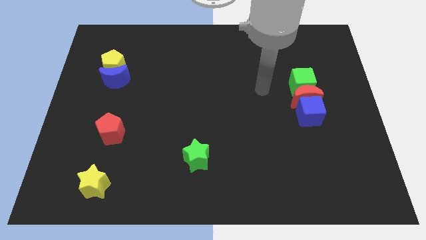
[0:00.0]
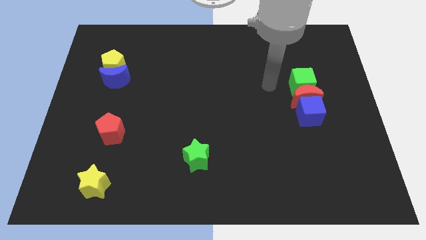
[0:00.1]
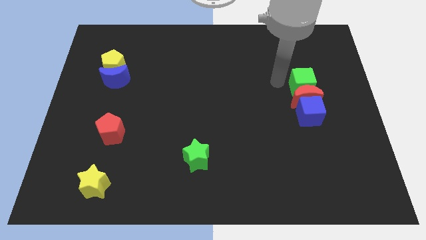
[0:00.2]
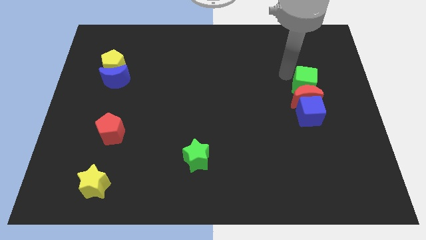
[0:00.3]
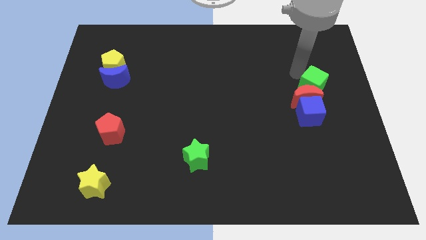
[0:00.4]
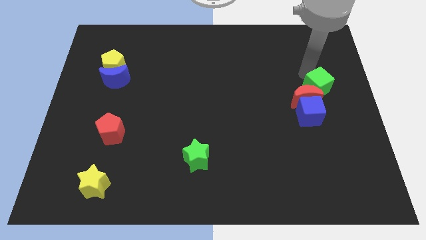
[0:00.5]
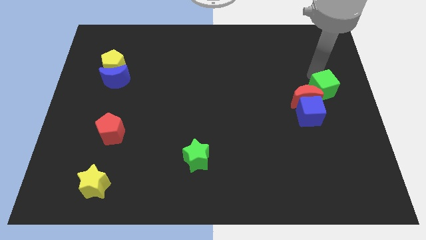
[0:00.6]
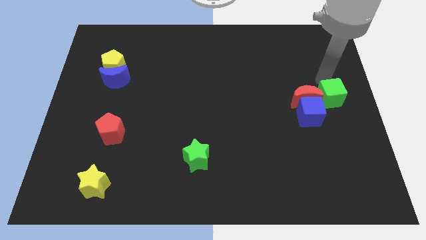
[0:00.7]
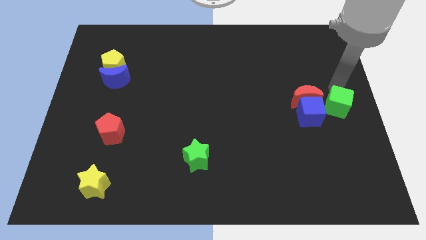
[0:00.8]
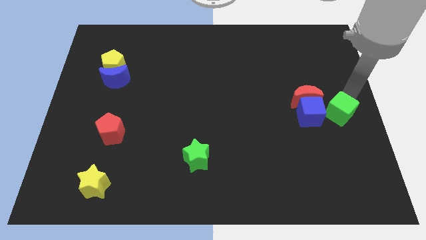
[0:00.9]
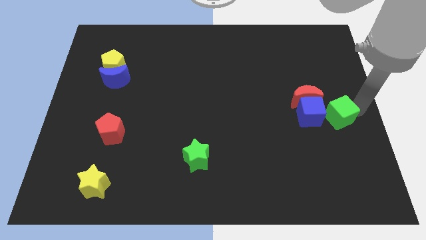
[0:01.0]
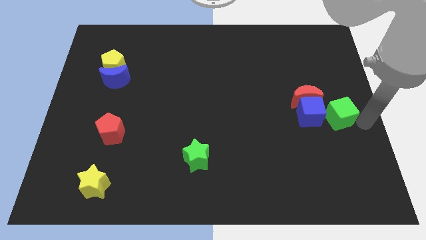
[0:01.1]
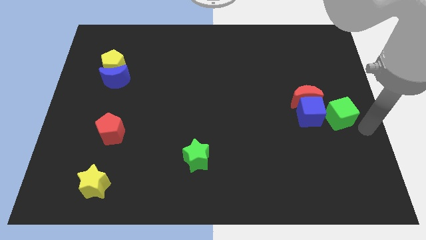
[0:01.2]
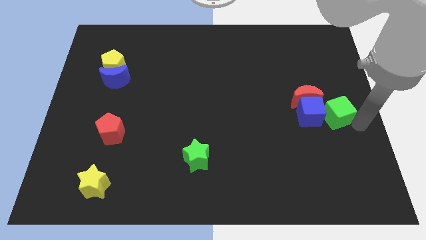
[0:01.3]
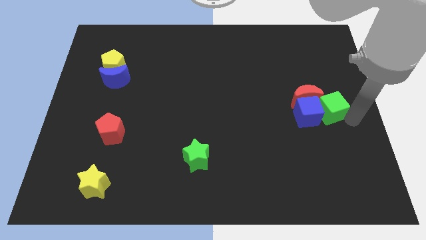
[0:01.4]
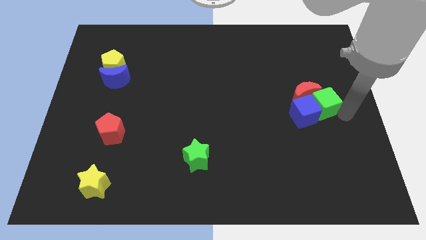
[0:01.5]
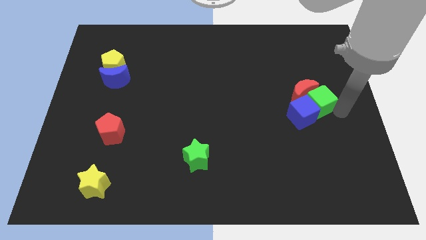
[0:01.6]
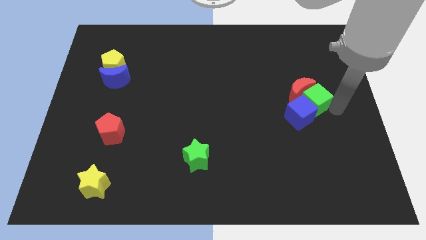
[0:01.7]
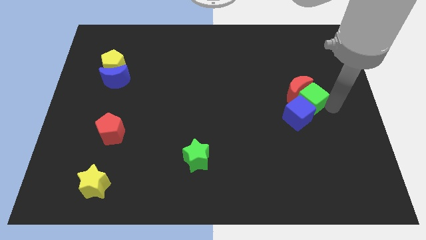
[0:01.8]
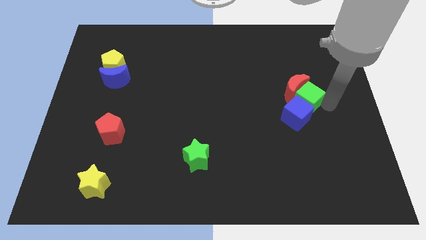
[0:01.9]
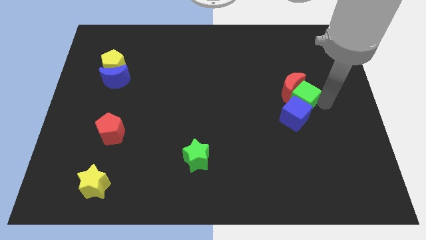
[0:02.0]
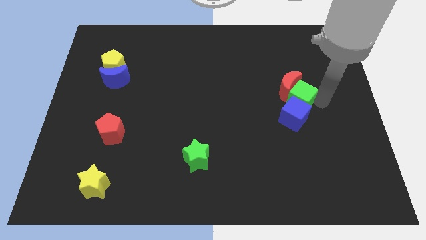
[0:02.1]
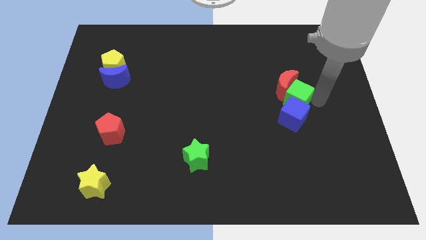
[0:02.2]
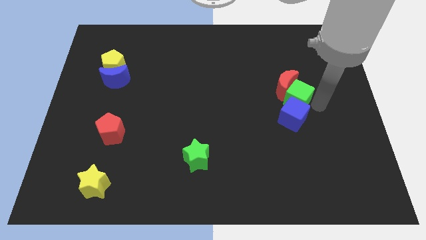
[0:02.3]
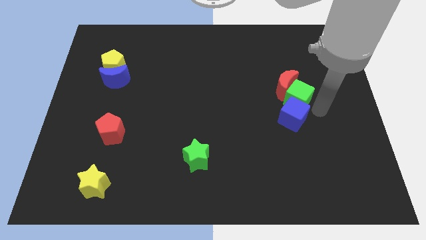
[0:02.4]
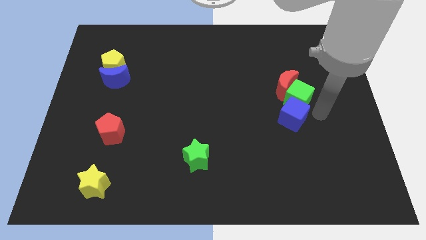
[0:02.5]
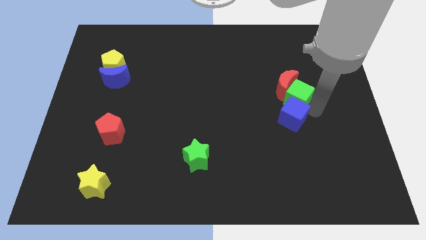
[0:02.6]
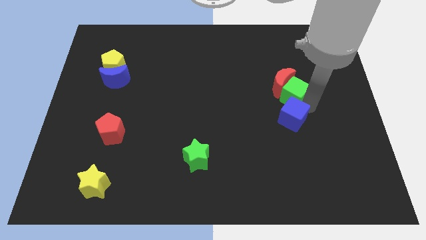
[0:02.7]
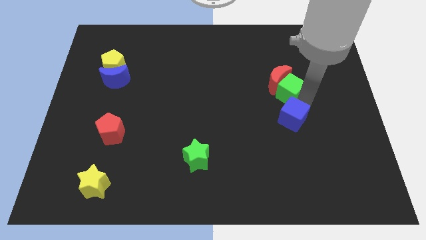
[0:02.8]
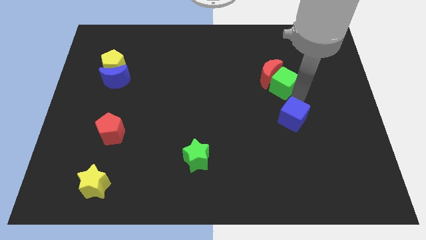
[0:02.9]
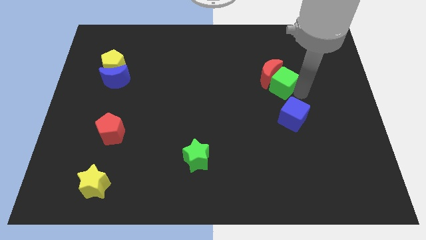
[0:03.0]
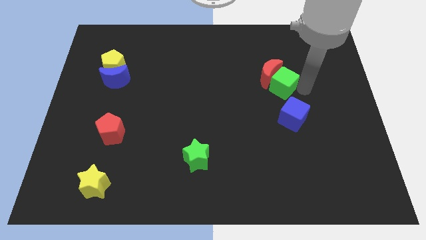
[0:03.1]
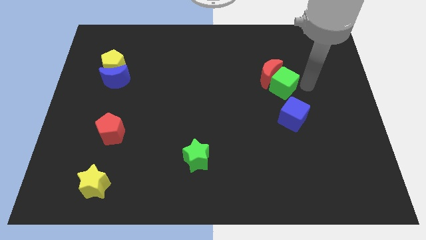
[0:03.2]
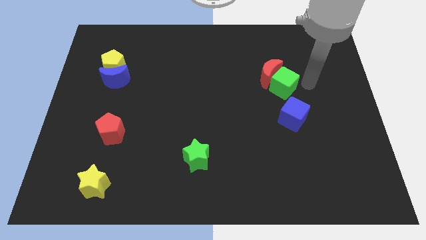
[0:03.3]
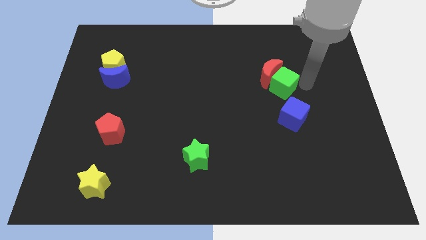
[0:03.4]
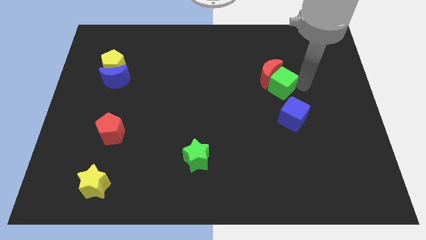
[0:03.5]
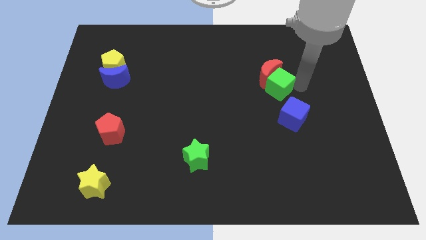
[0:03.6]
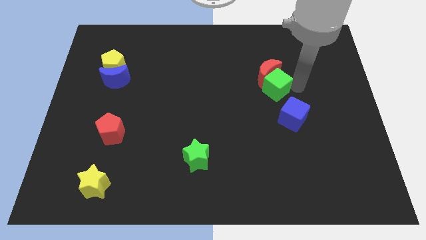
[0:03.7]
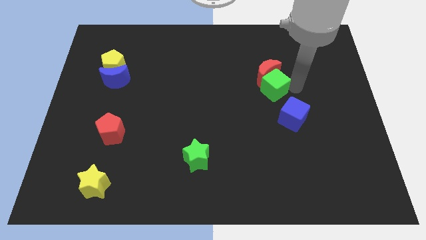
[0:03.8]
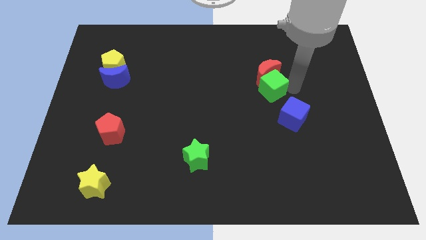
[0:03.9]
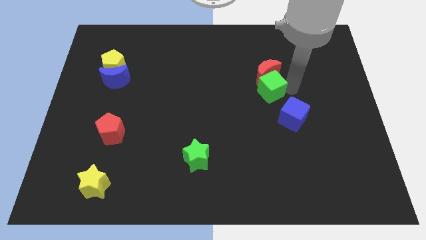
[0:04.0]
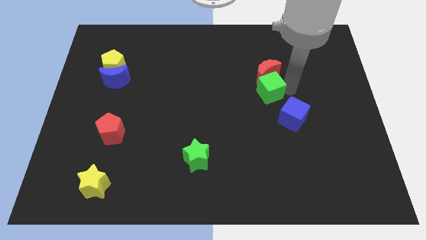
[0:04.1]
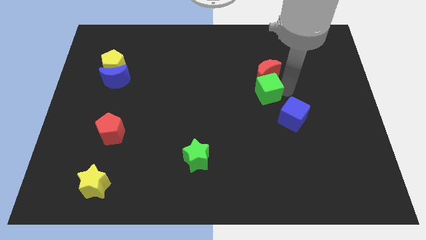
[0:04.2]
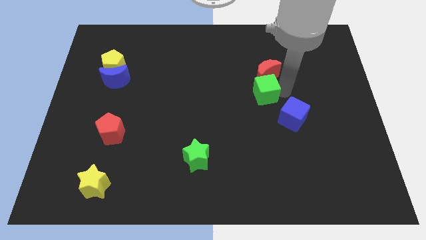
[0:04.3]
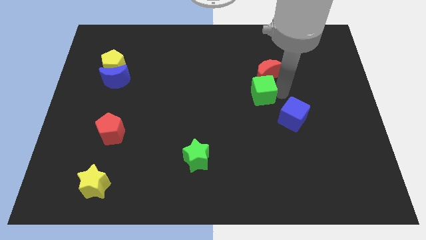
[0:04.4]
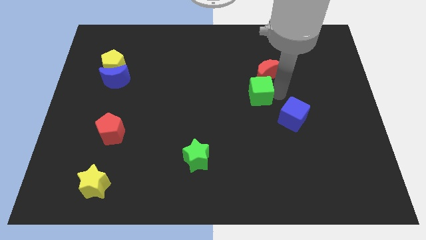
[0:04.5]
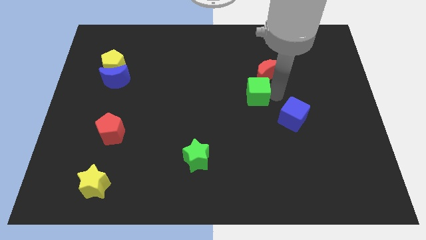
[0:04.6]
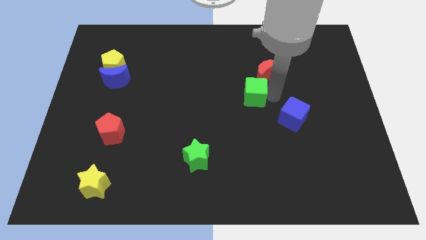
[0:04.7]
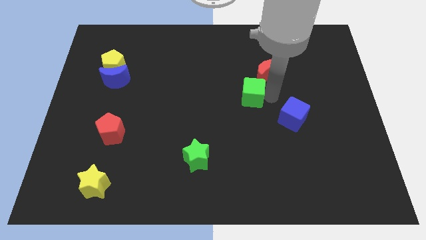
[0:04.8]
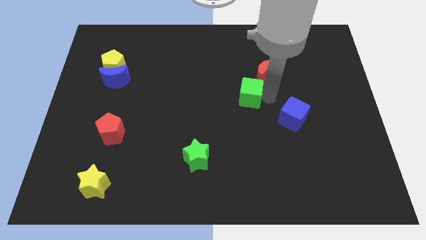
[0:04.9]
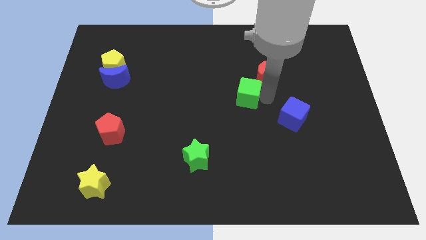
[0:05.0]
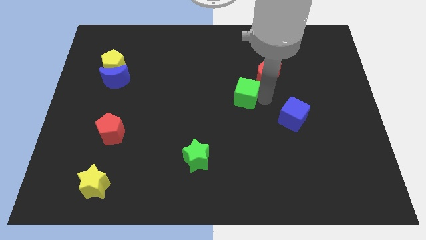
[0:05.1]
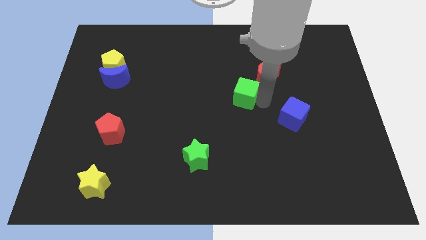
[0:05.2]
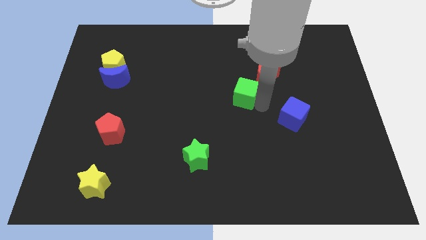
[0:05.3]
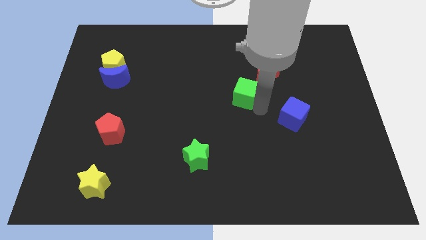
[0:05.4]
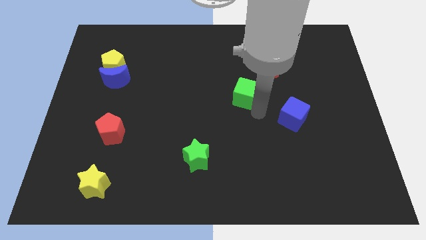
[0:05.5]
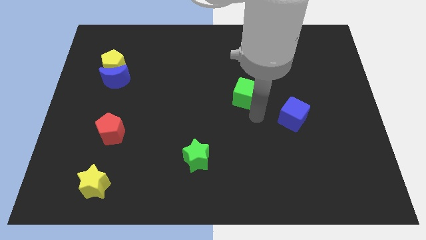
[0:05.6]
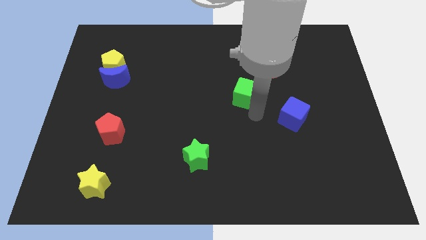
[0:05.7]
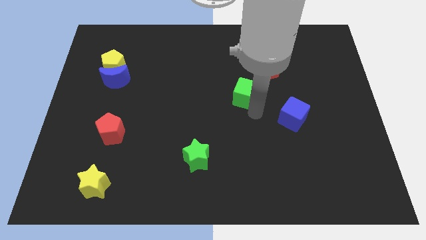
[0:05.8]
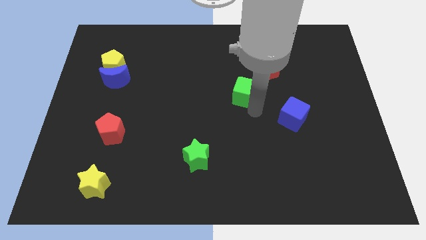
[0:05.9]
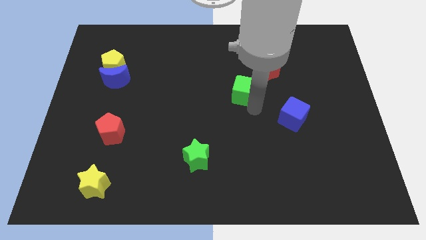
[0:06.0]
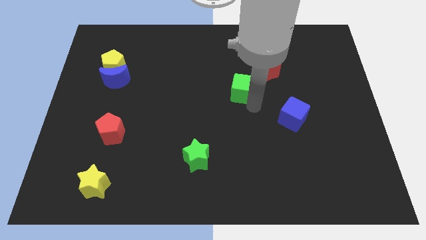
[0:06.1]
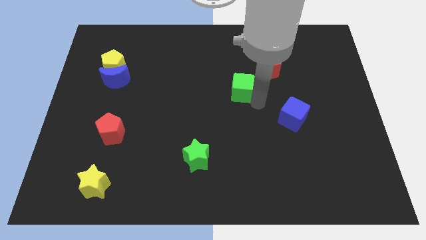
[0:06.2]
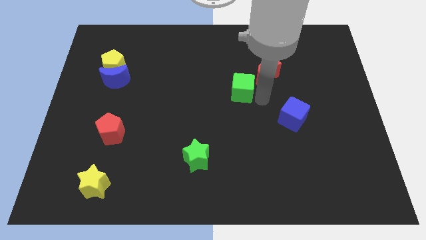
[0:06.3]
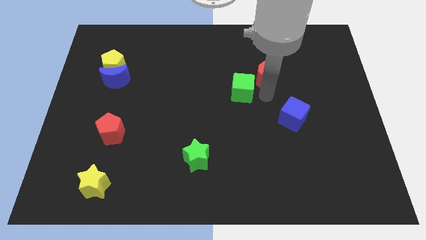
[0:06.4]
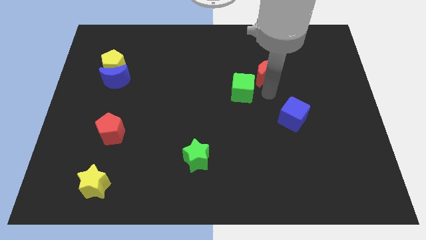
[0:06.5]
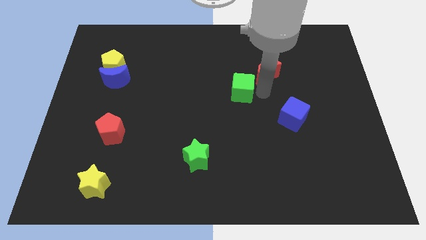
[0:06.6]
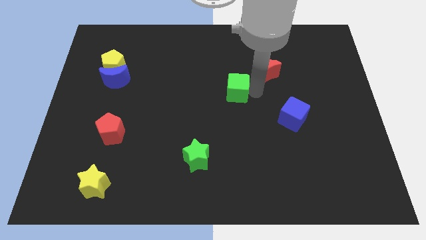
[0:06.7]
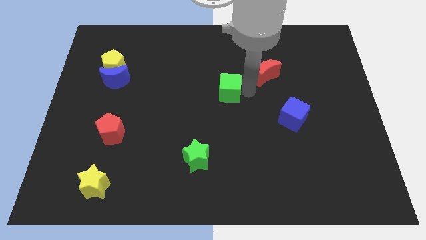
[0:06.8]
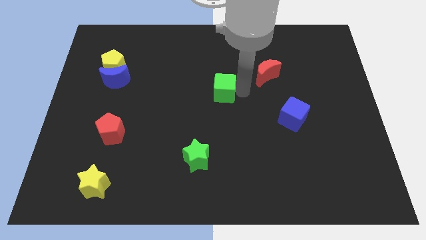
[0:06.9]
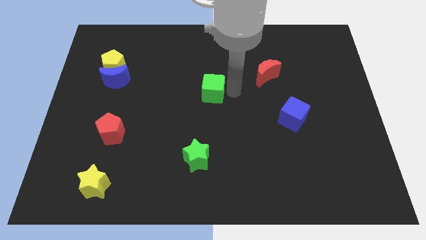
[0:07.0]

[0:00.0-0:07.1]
slide the green cube left

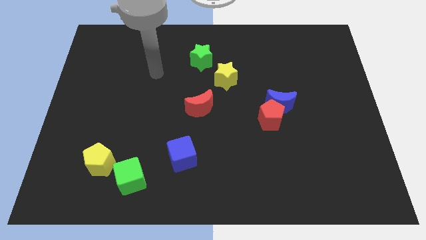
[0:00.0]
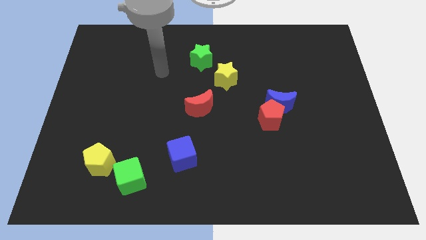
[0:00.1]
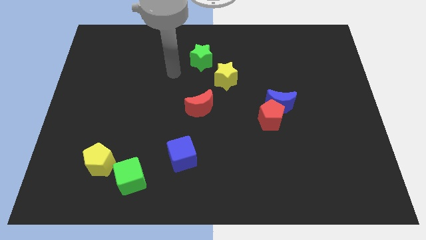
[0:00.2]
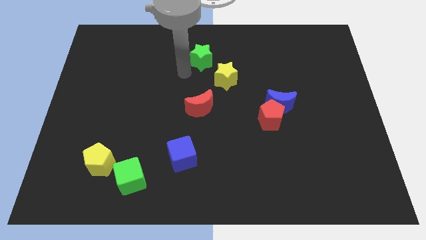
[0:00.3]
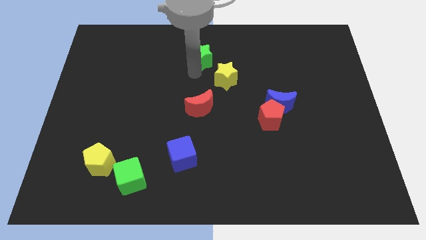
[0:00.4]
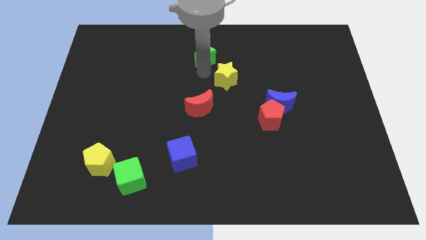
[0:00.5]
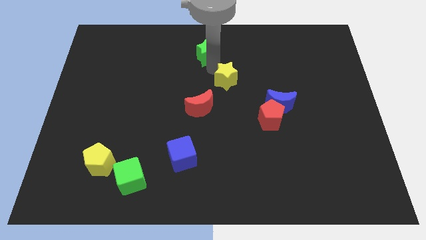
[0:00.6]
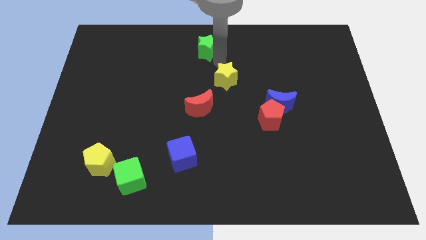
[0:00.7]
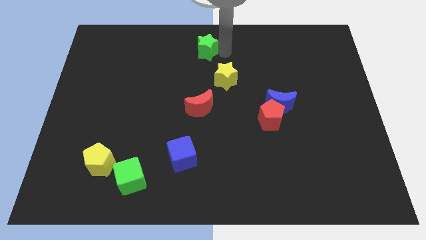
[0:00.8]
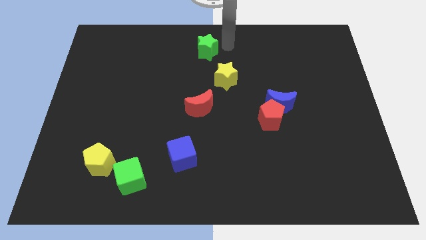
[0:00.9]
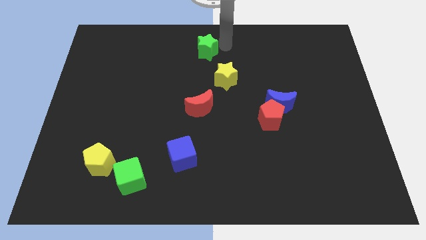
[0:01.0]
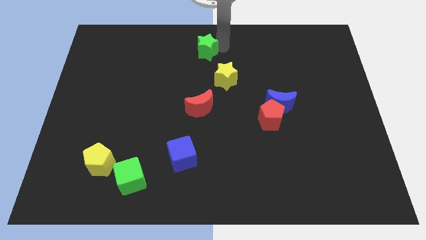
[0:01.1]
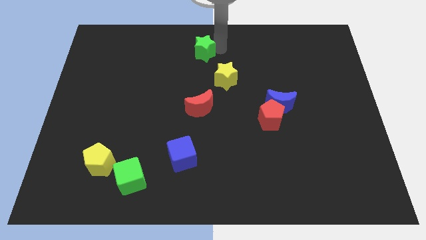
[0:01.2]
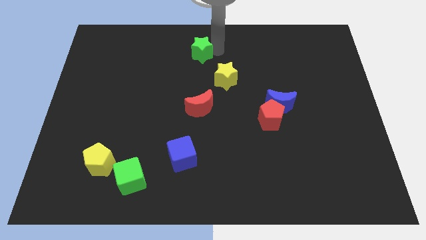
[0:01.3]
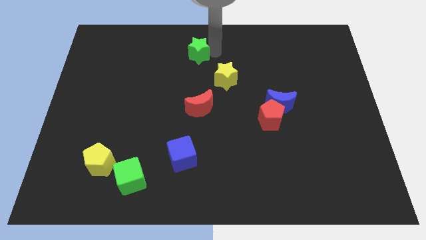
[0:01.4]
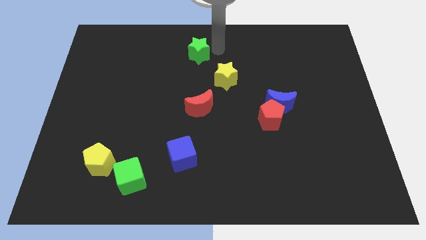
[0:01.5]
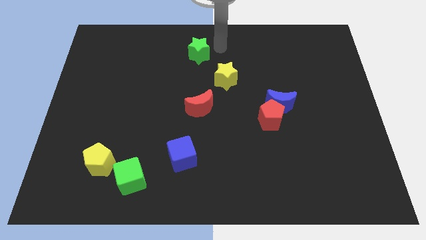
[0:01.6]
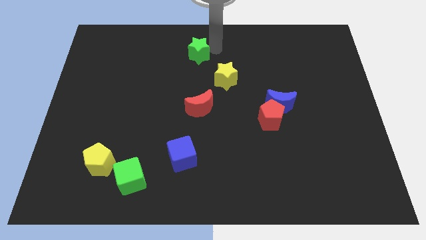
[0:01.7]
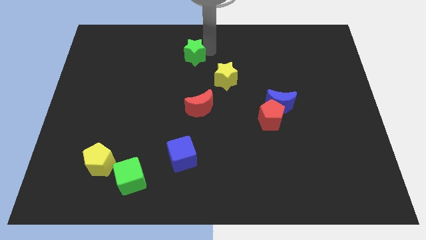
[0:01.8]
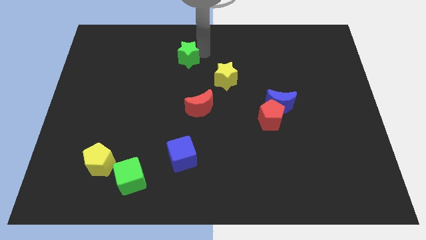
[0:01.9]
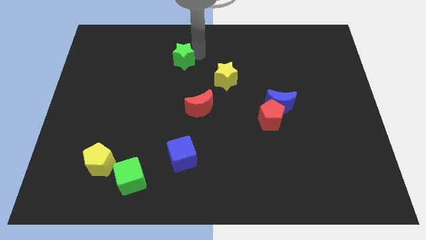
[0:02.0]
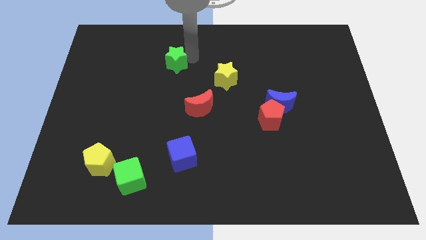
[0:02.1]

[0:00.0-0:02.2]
slide the green star left slightly
